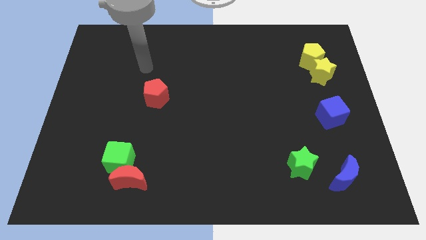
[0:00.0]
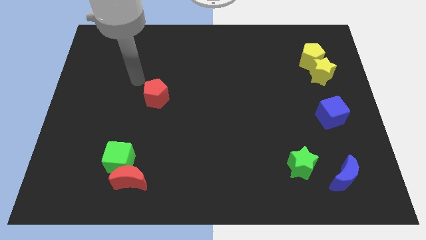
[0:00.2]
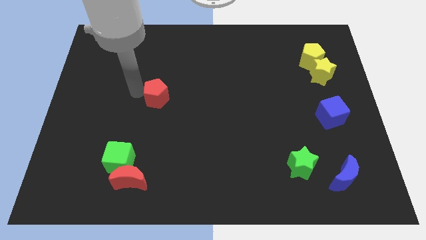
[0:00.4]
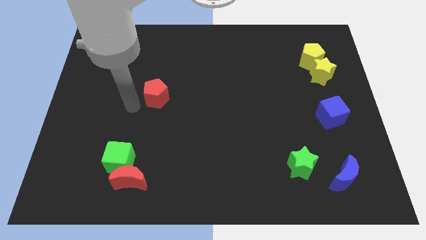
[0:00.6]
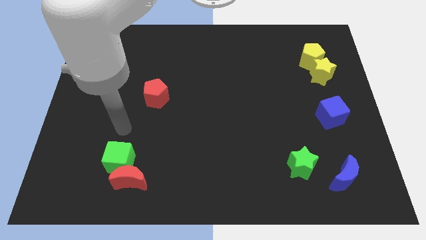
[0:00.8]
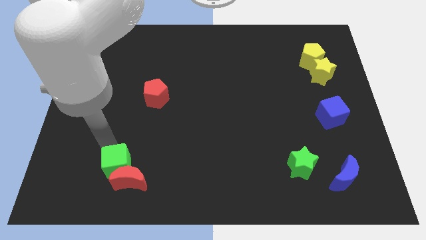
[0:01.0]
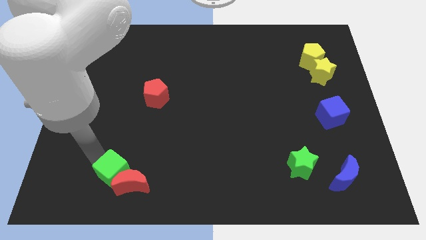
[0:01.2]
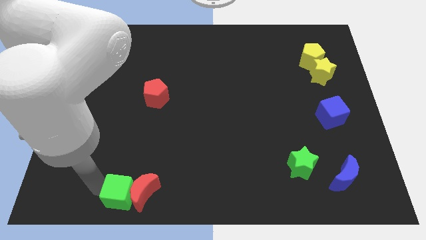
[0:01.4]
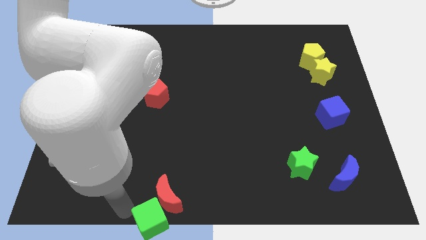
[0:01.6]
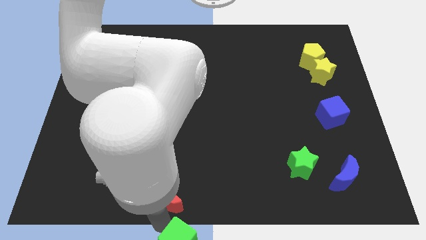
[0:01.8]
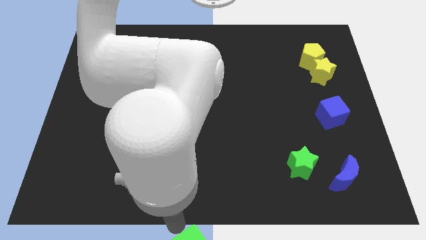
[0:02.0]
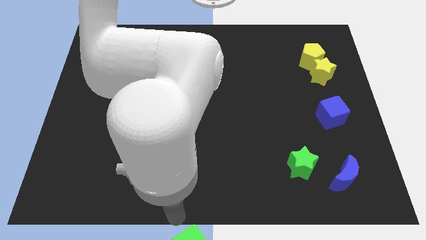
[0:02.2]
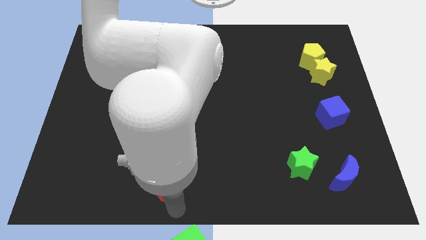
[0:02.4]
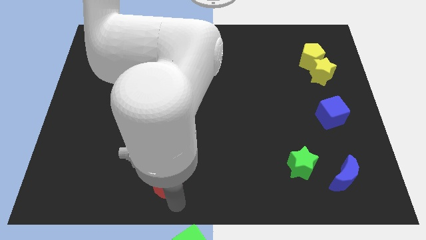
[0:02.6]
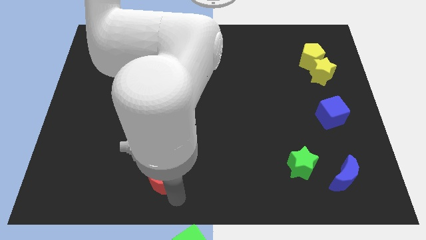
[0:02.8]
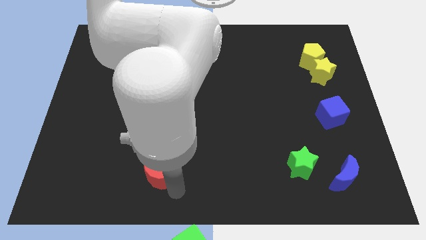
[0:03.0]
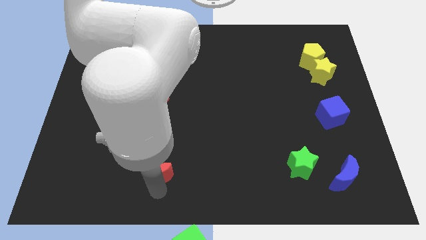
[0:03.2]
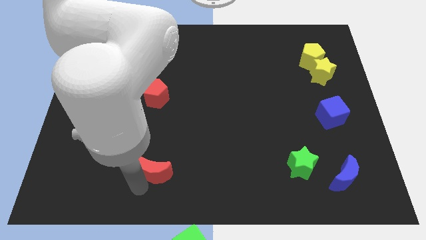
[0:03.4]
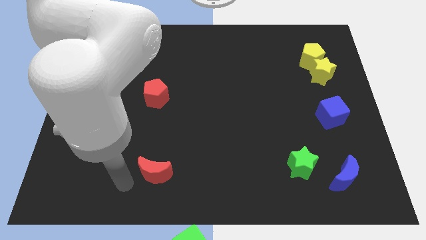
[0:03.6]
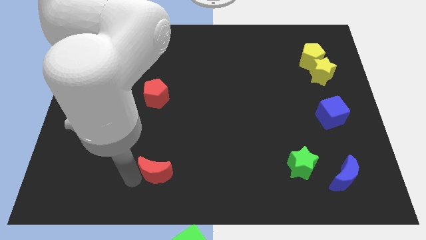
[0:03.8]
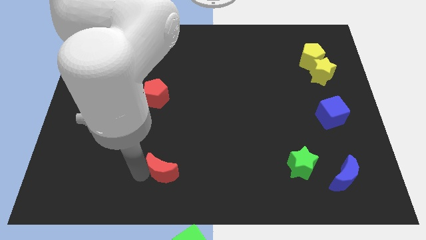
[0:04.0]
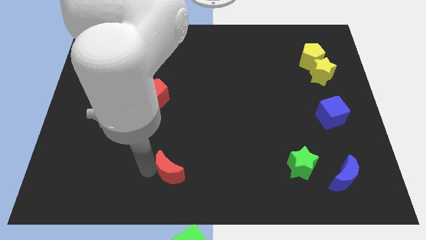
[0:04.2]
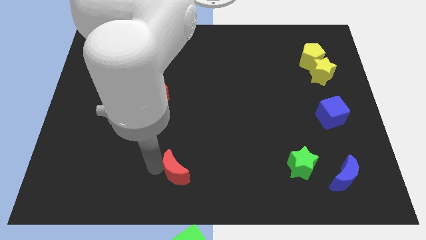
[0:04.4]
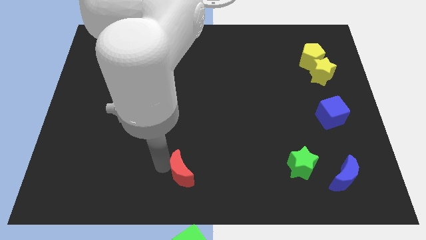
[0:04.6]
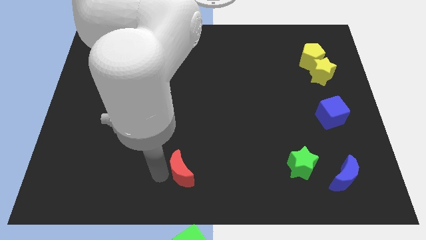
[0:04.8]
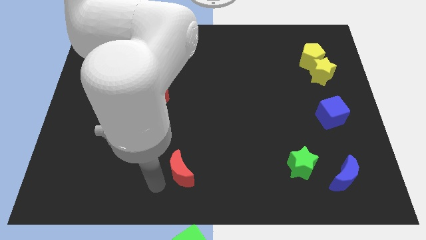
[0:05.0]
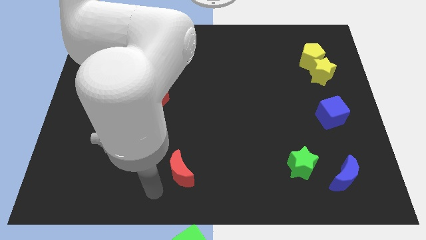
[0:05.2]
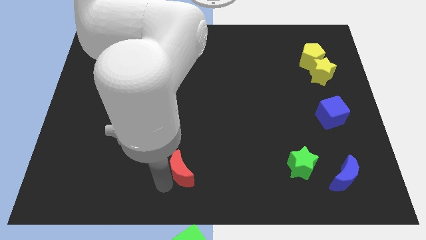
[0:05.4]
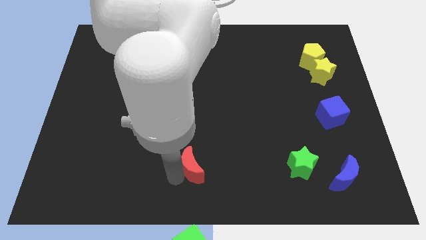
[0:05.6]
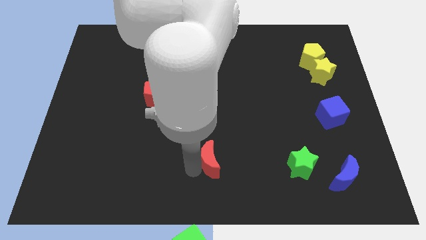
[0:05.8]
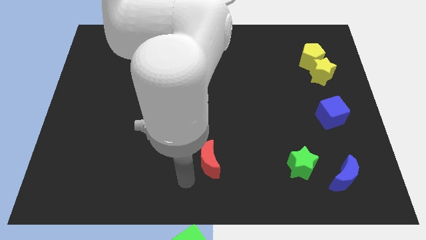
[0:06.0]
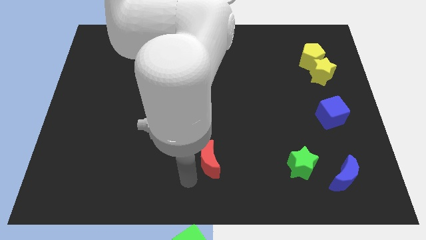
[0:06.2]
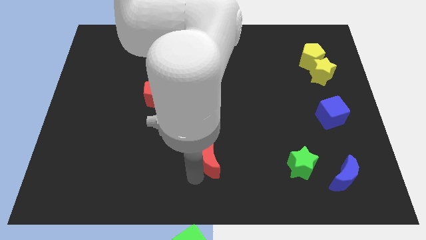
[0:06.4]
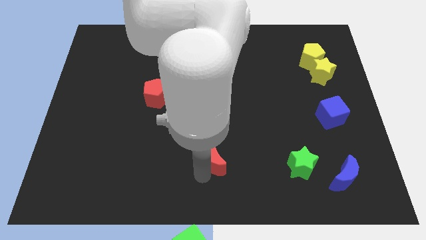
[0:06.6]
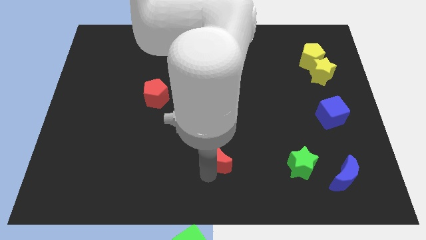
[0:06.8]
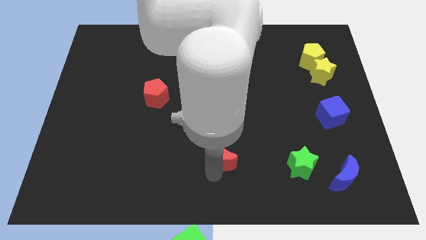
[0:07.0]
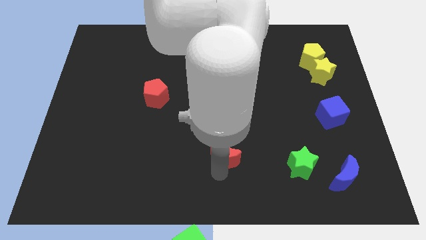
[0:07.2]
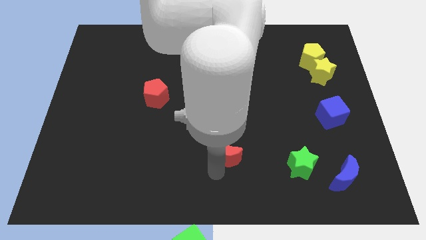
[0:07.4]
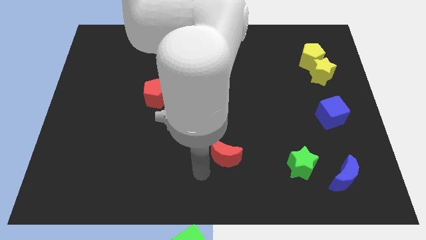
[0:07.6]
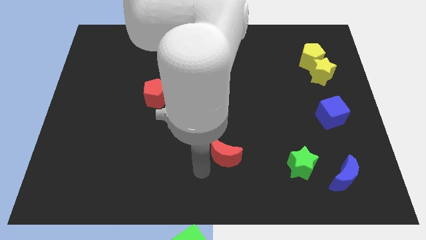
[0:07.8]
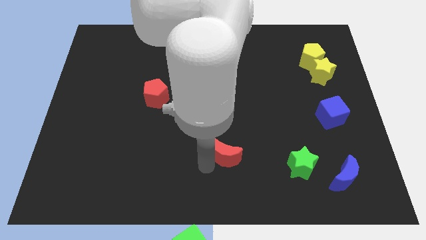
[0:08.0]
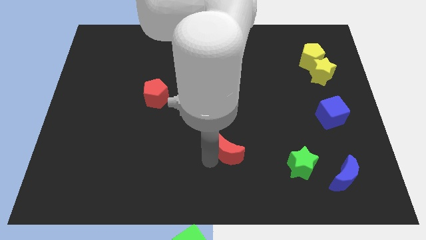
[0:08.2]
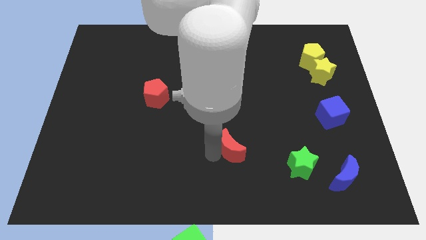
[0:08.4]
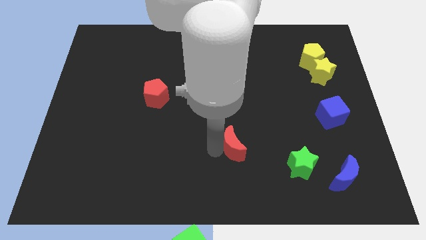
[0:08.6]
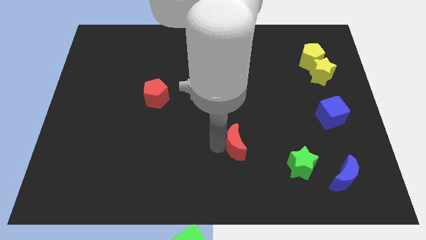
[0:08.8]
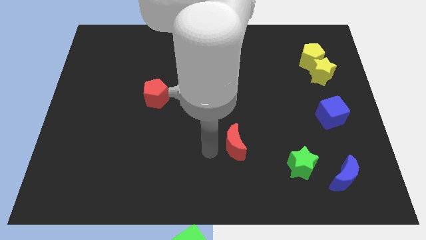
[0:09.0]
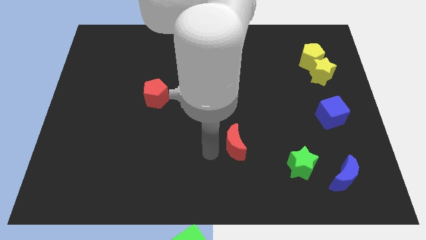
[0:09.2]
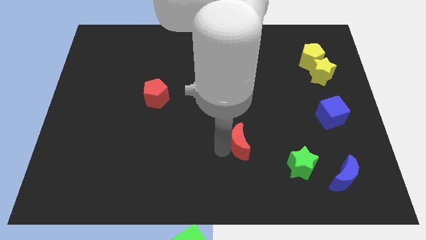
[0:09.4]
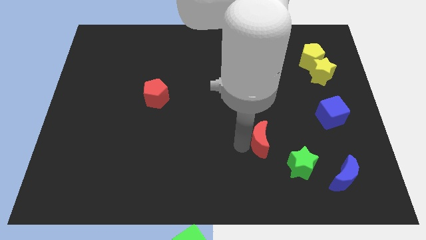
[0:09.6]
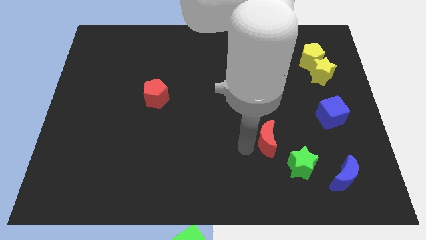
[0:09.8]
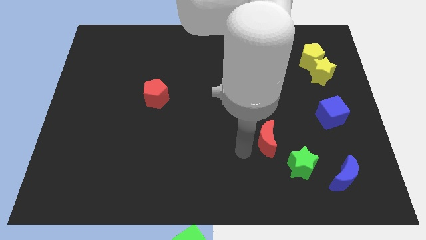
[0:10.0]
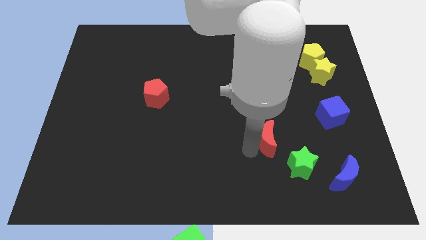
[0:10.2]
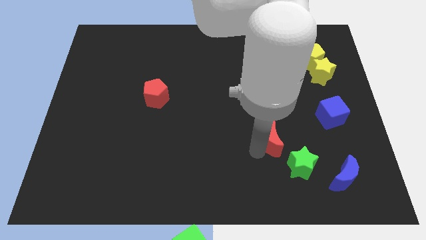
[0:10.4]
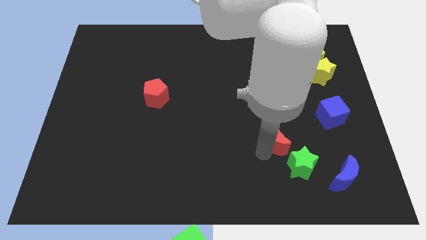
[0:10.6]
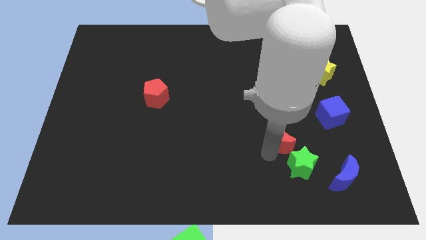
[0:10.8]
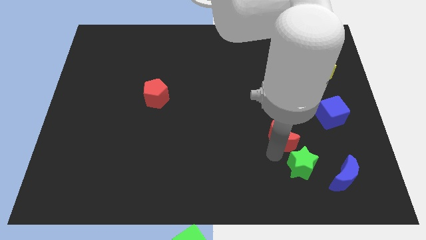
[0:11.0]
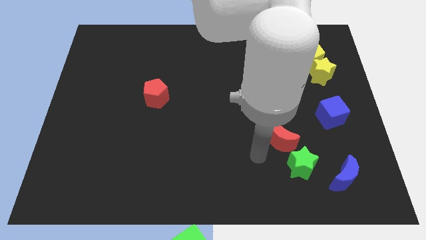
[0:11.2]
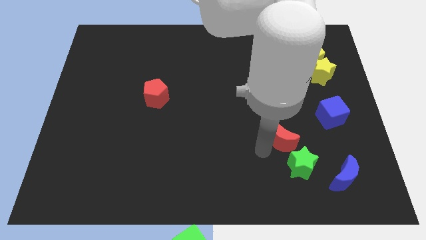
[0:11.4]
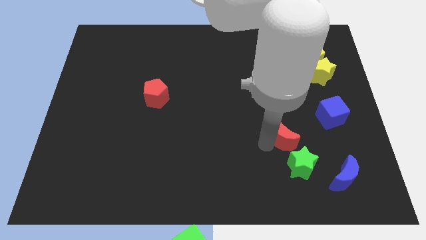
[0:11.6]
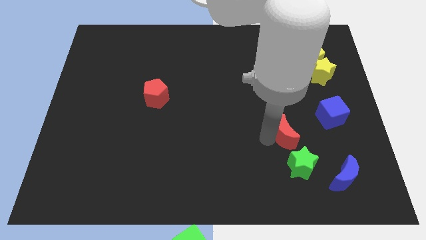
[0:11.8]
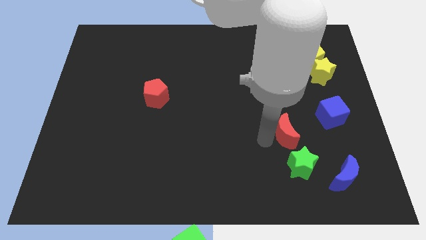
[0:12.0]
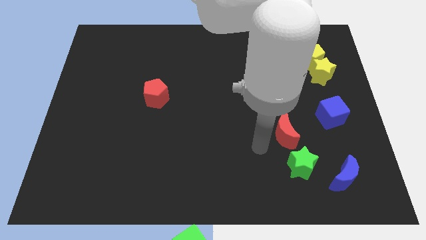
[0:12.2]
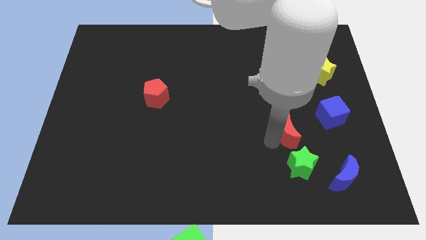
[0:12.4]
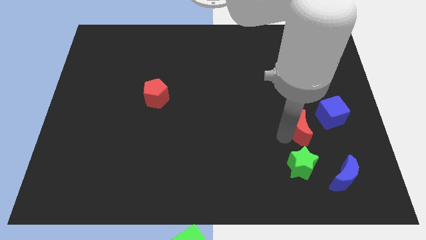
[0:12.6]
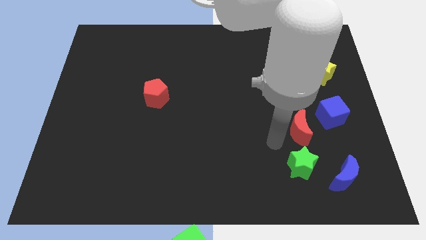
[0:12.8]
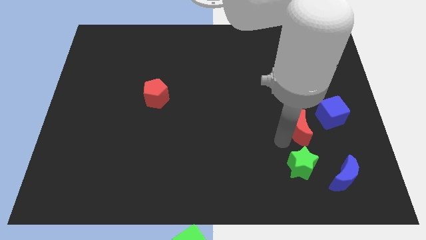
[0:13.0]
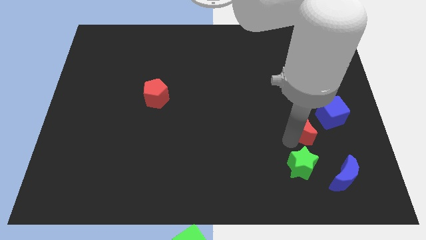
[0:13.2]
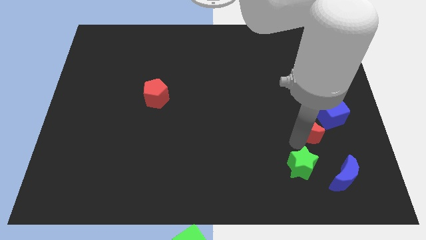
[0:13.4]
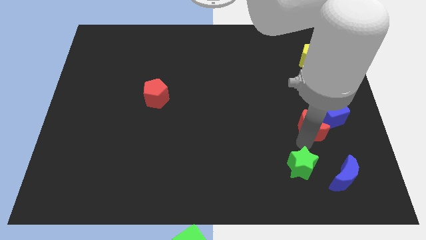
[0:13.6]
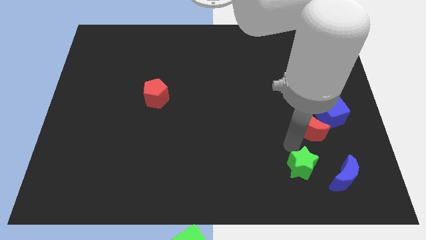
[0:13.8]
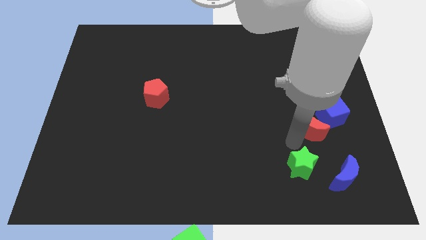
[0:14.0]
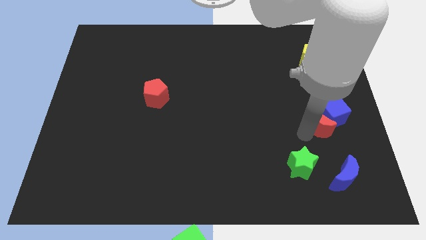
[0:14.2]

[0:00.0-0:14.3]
put the red moon next to the blue cube

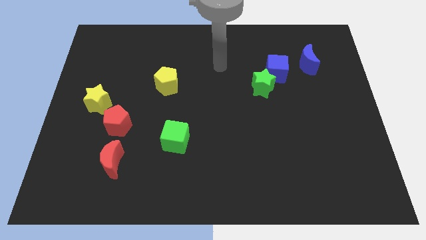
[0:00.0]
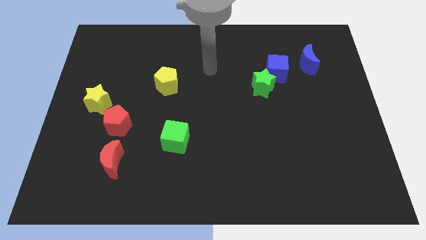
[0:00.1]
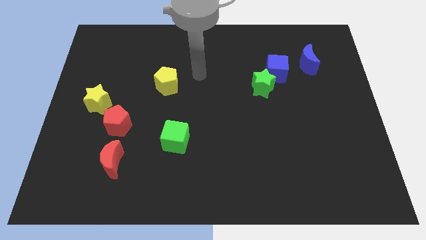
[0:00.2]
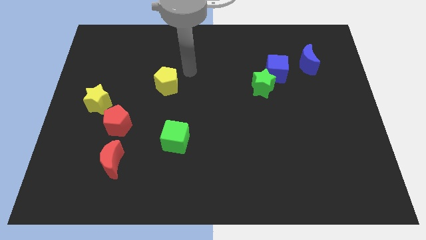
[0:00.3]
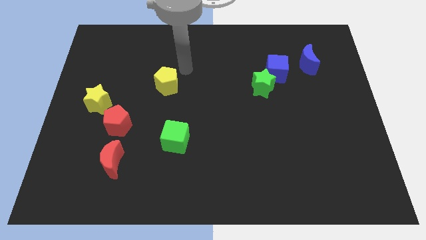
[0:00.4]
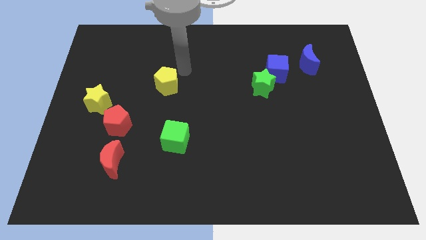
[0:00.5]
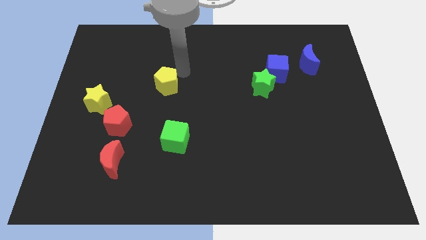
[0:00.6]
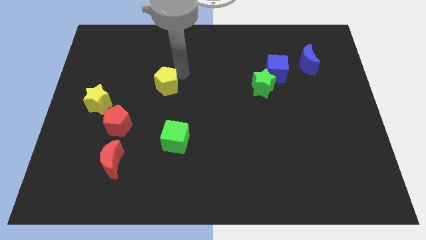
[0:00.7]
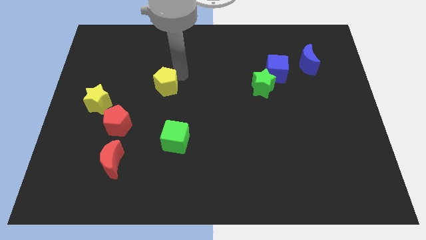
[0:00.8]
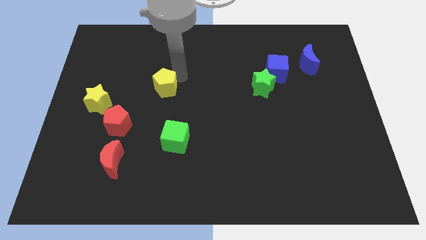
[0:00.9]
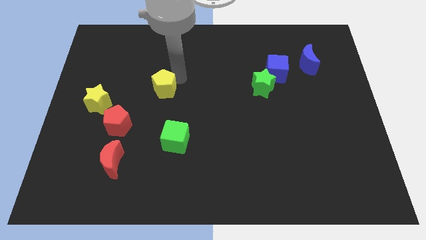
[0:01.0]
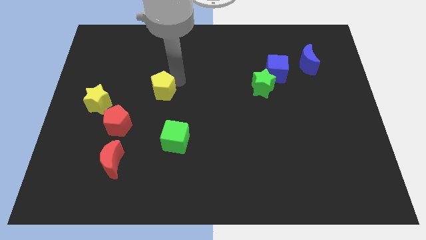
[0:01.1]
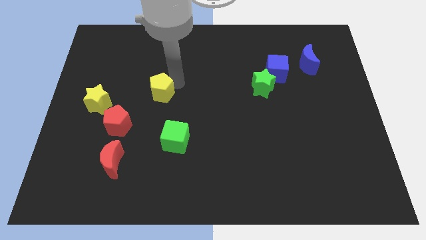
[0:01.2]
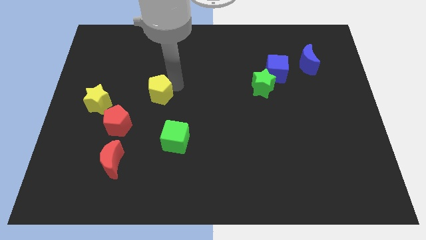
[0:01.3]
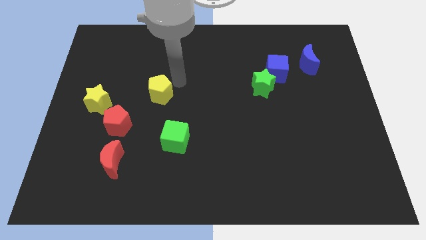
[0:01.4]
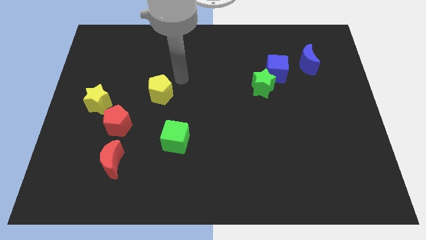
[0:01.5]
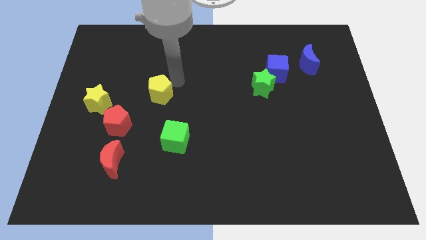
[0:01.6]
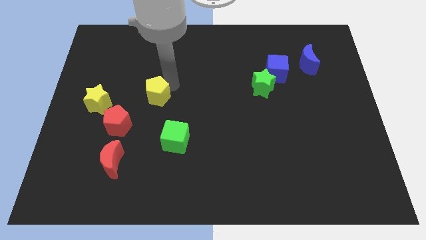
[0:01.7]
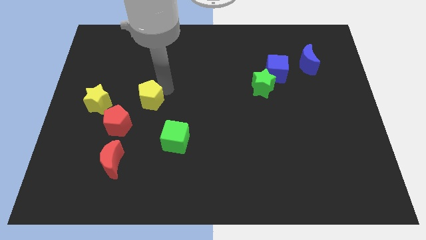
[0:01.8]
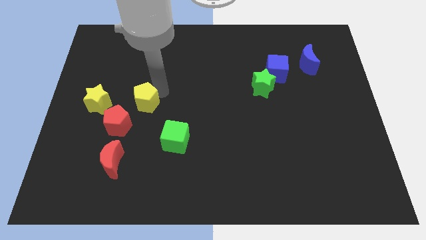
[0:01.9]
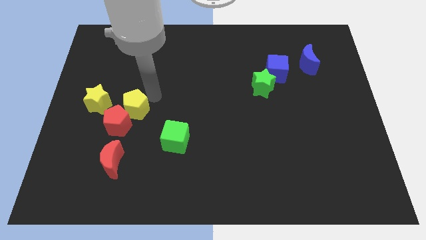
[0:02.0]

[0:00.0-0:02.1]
slide the yellow pentagon next to the red pentagon
